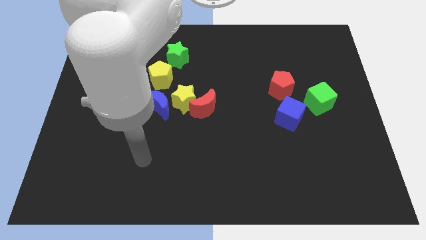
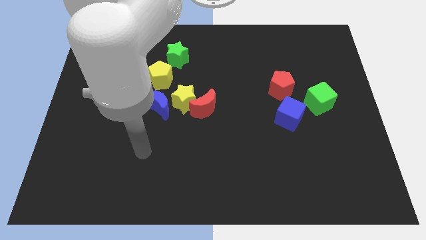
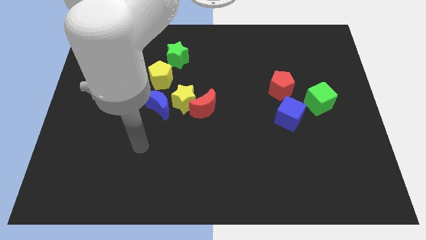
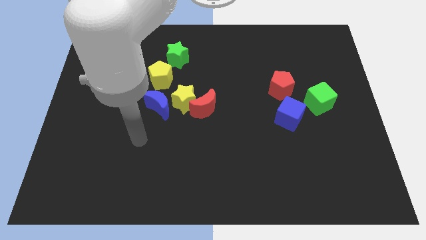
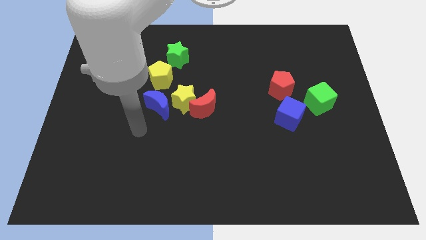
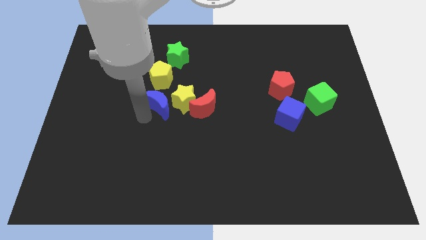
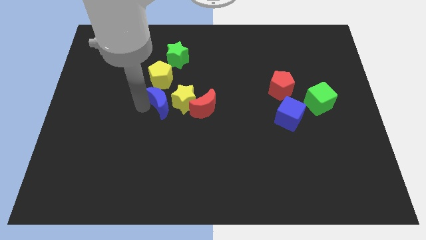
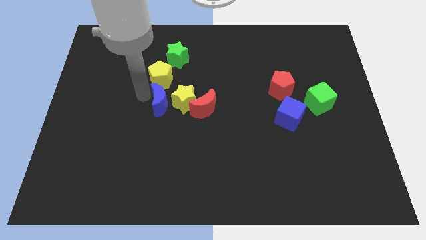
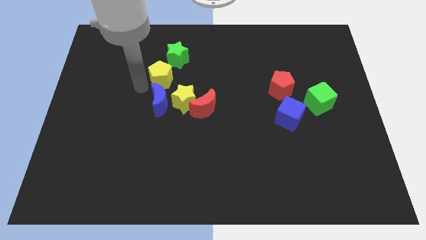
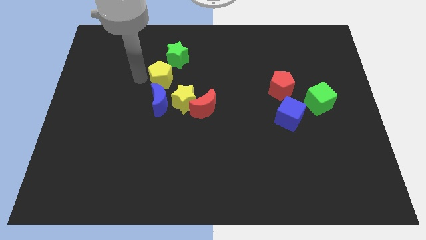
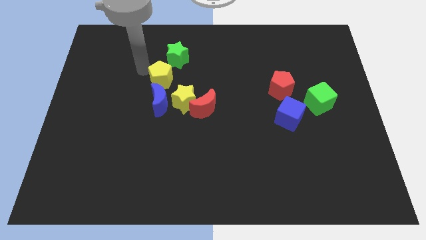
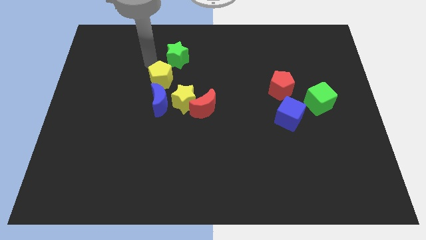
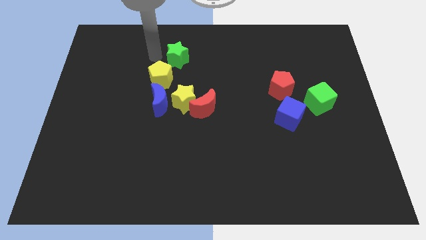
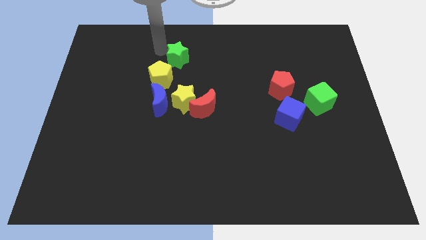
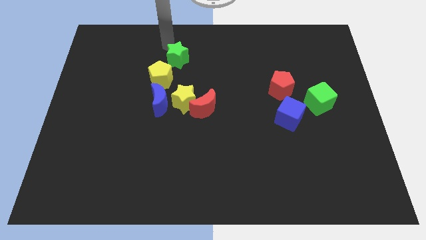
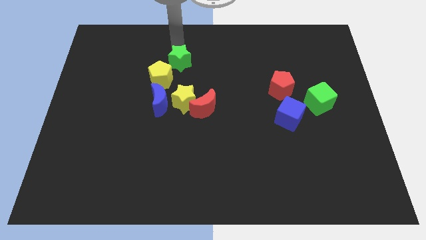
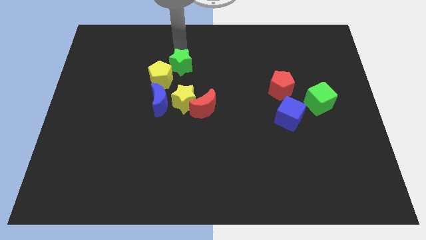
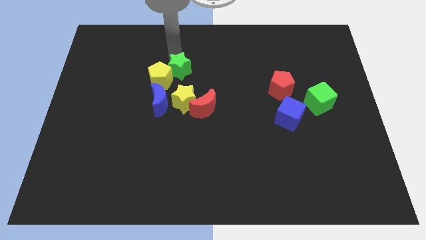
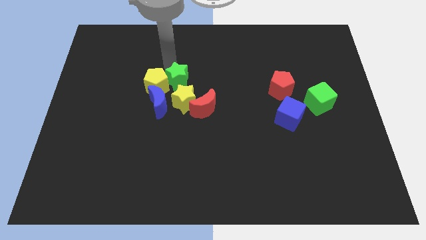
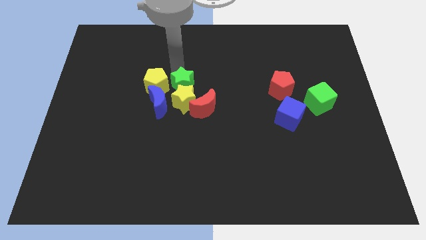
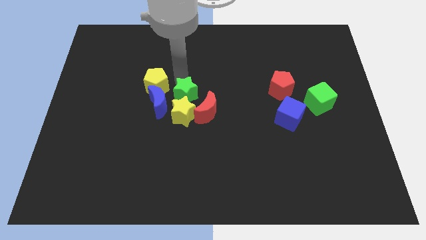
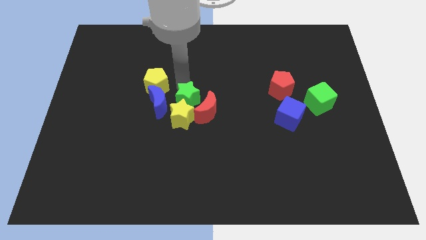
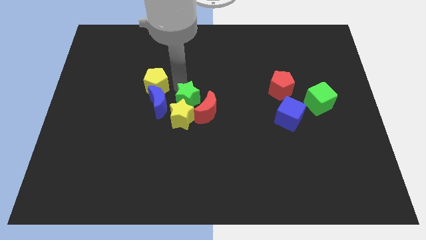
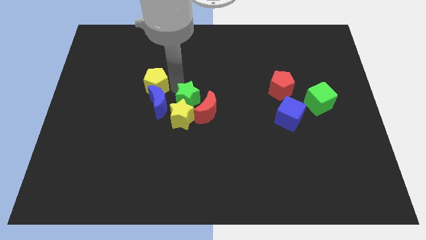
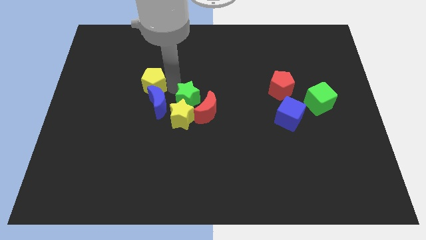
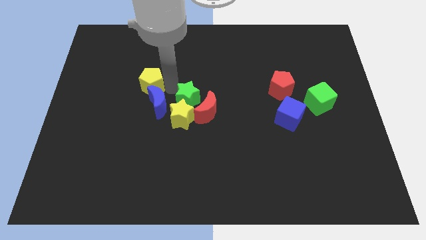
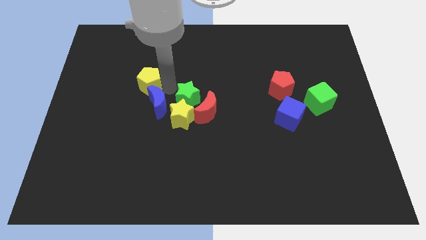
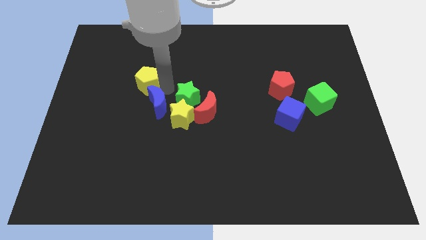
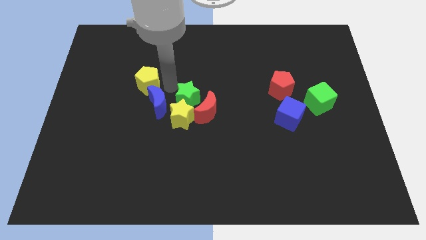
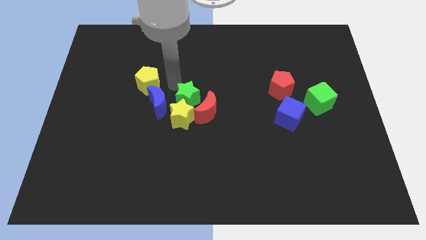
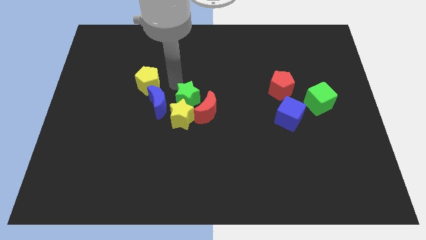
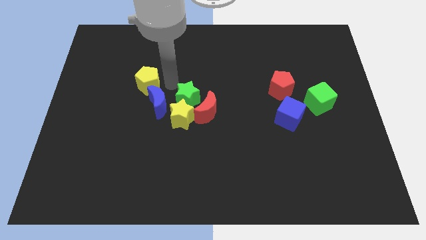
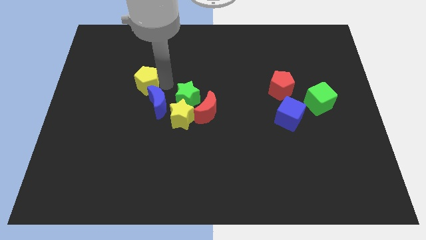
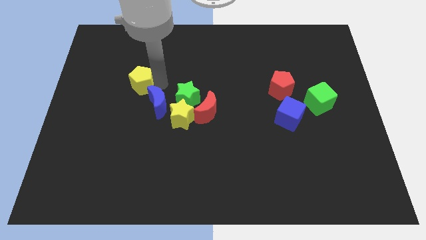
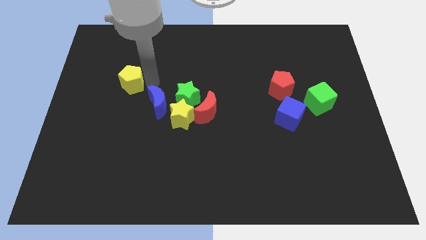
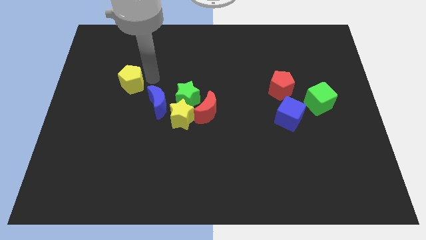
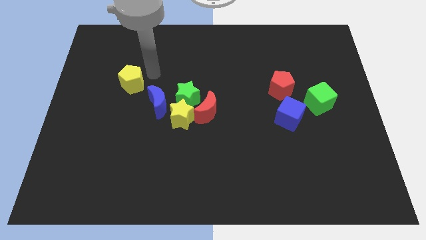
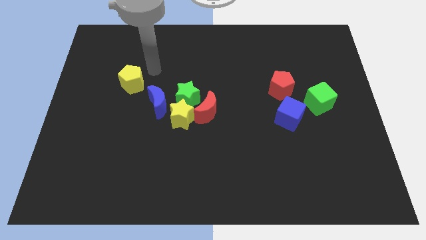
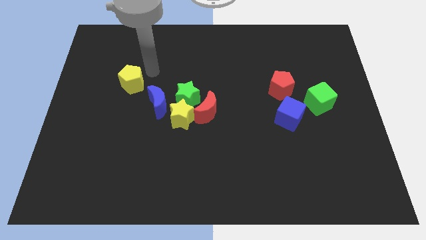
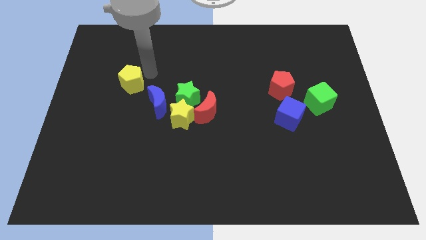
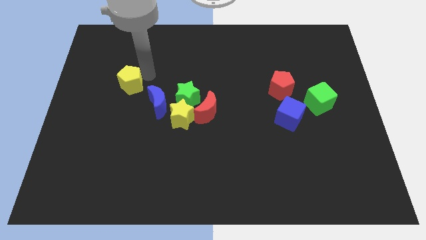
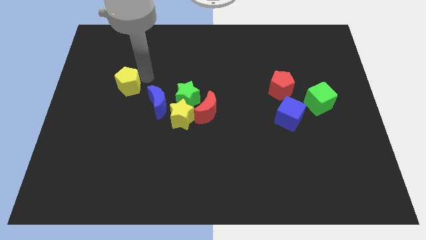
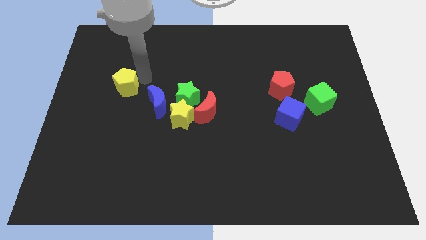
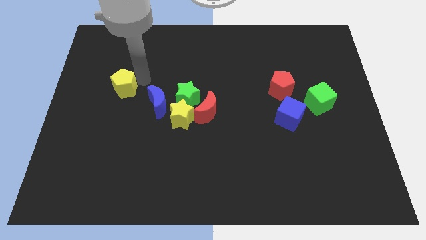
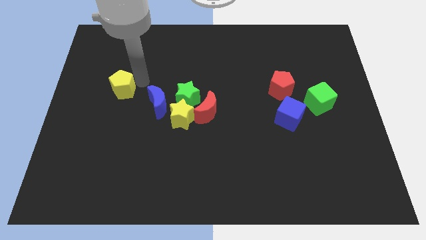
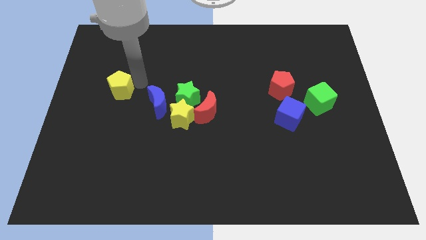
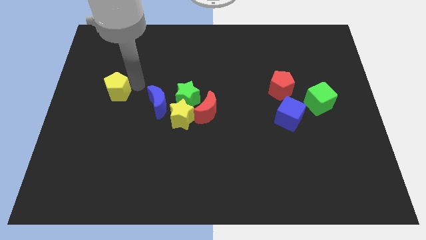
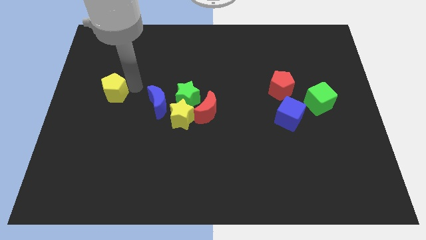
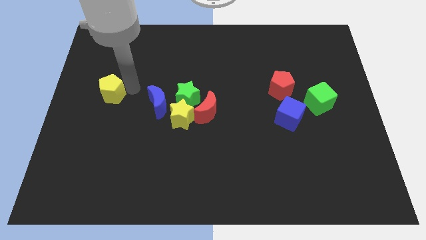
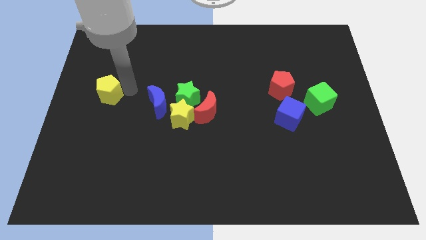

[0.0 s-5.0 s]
push the yellow pentagon to the left side of the board
